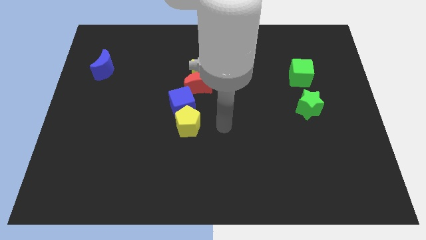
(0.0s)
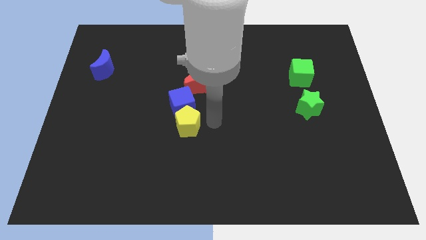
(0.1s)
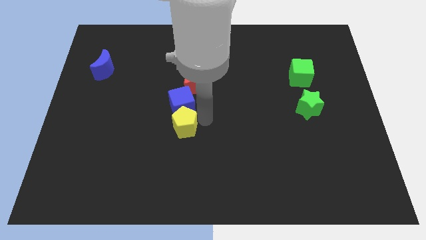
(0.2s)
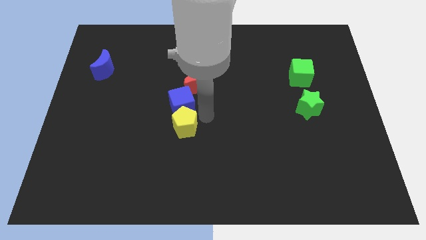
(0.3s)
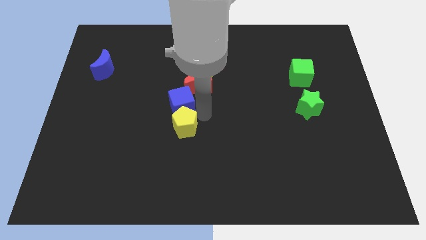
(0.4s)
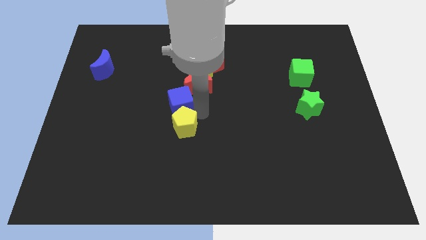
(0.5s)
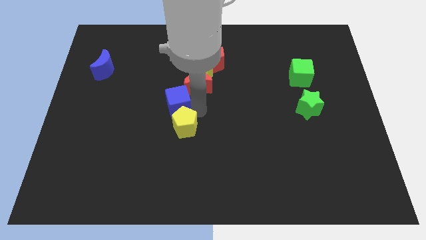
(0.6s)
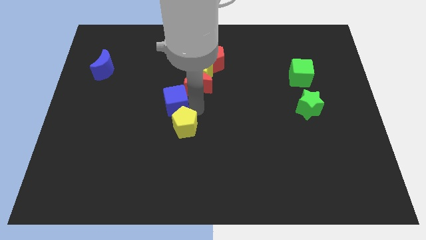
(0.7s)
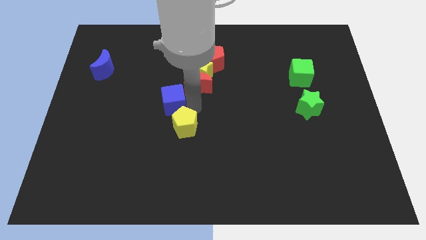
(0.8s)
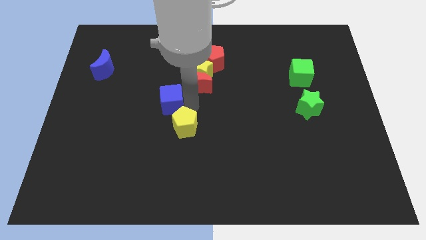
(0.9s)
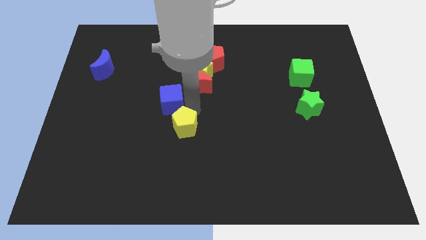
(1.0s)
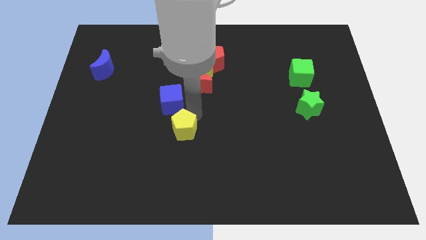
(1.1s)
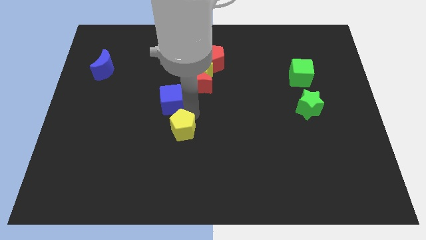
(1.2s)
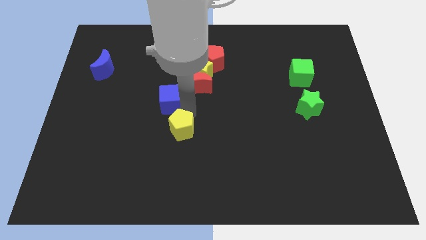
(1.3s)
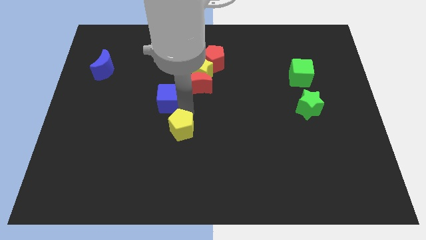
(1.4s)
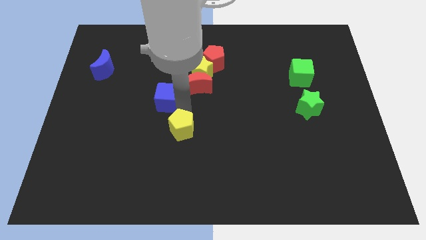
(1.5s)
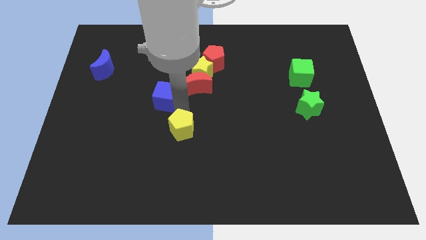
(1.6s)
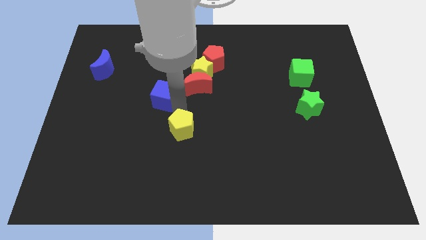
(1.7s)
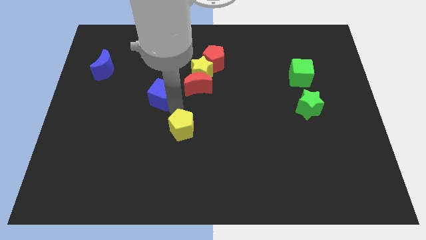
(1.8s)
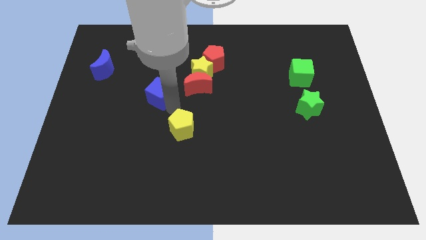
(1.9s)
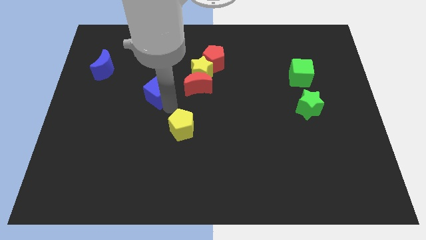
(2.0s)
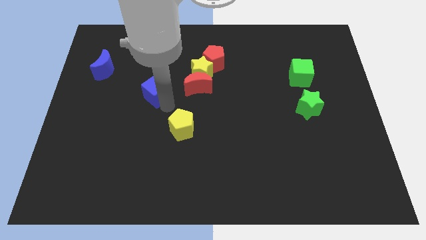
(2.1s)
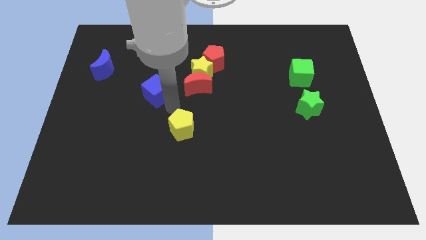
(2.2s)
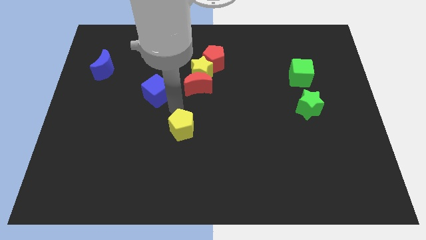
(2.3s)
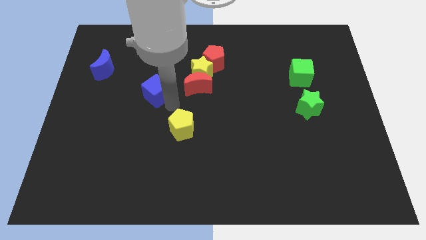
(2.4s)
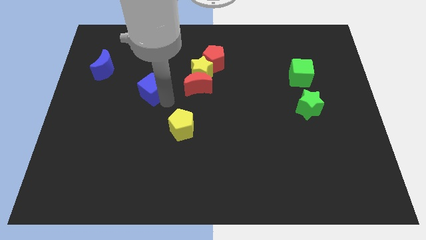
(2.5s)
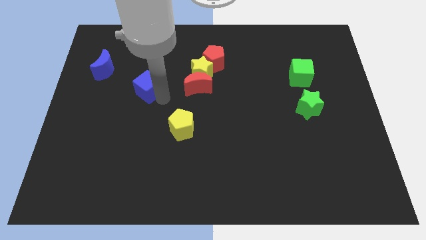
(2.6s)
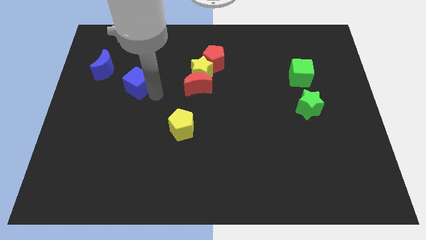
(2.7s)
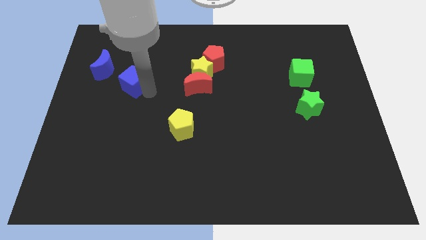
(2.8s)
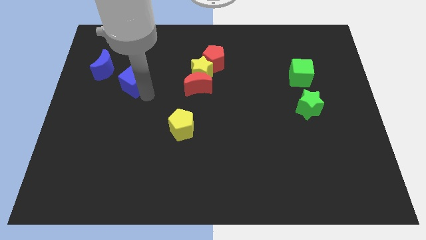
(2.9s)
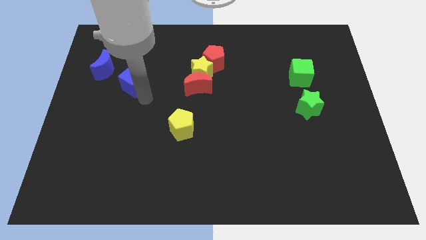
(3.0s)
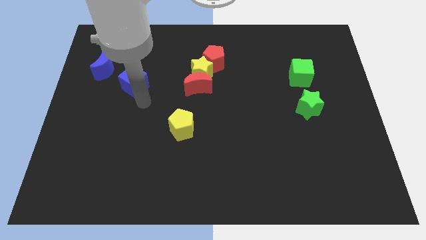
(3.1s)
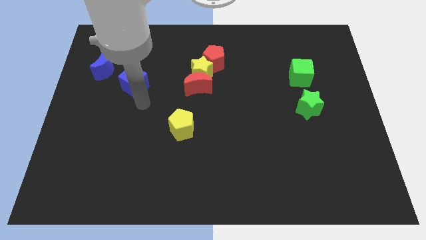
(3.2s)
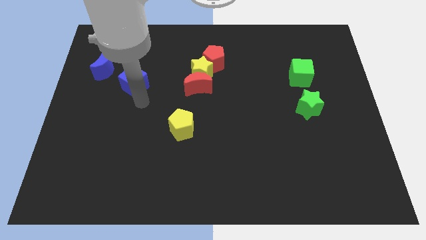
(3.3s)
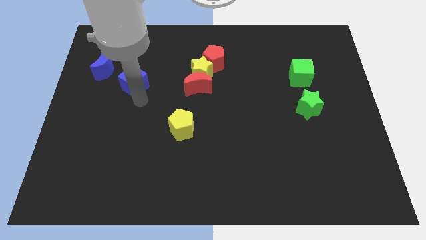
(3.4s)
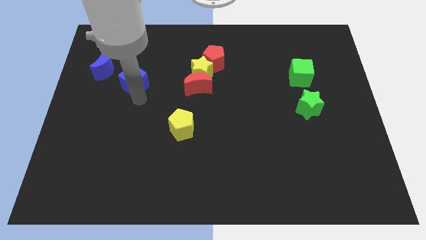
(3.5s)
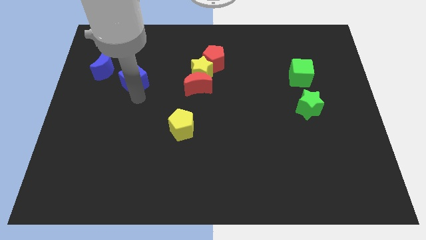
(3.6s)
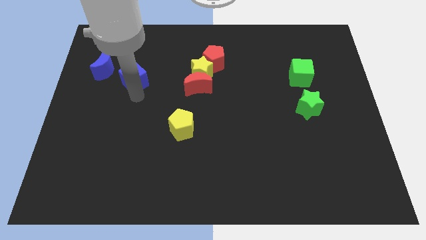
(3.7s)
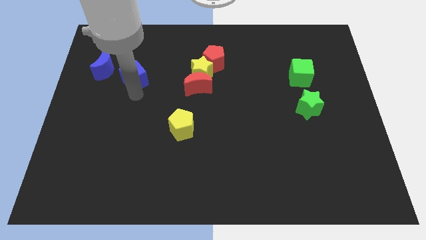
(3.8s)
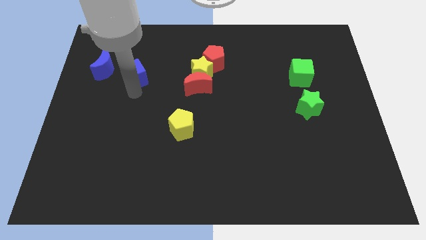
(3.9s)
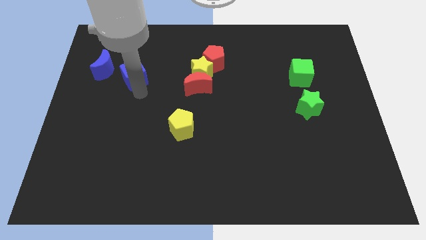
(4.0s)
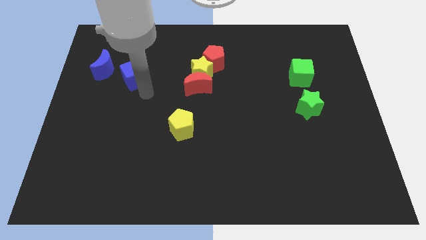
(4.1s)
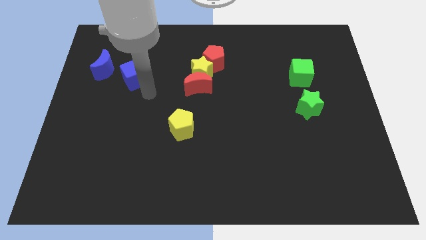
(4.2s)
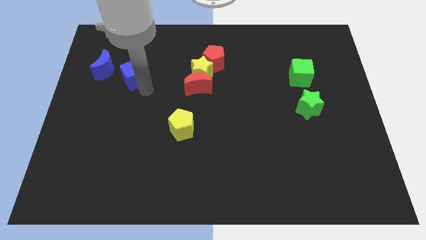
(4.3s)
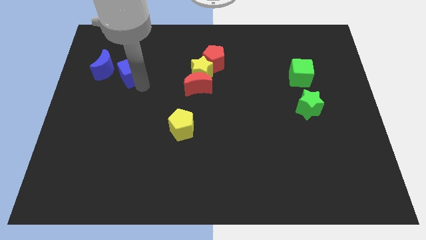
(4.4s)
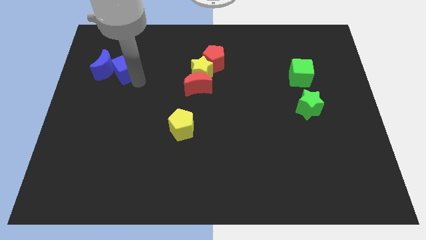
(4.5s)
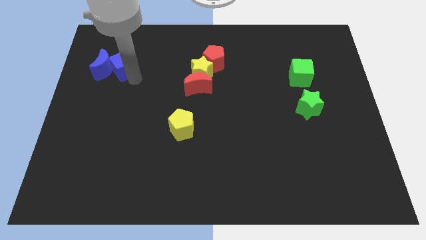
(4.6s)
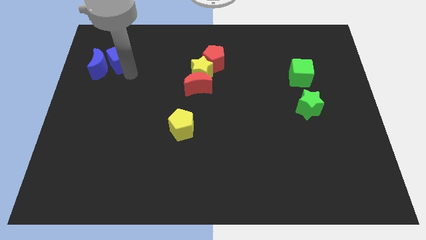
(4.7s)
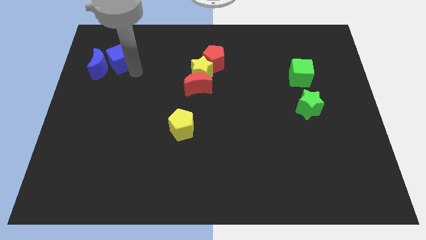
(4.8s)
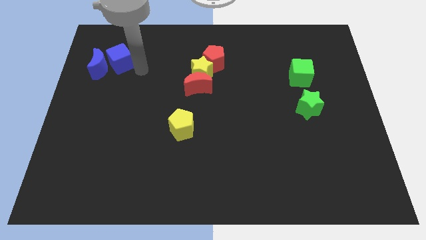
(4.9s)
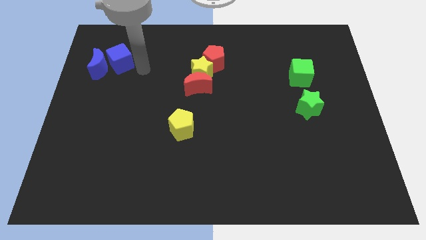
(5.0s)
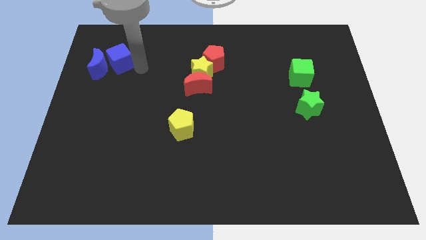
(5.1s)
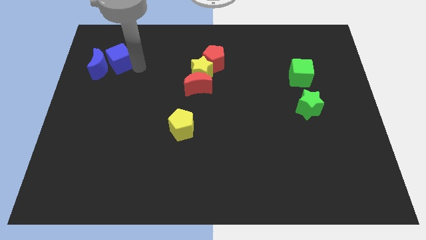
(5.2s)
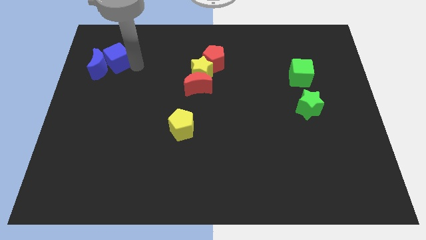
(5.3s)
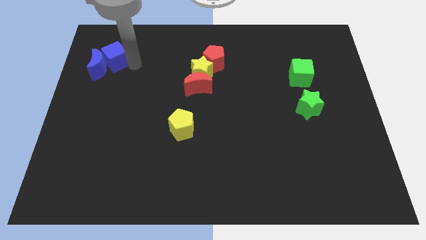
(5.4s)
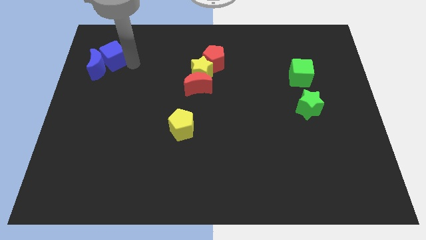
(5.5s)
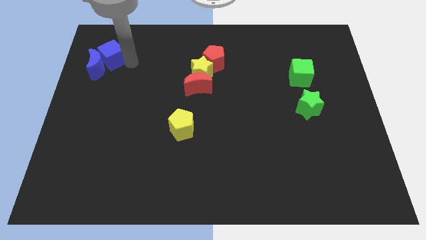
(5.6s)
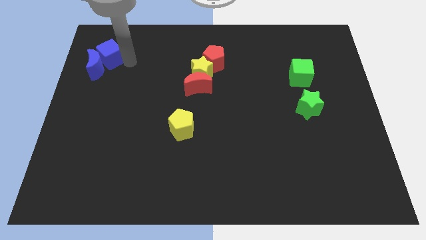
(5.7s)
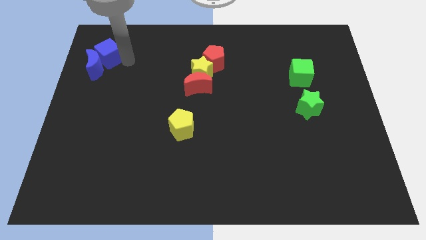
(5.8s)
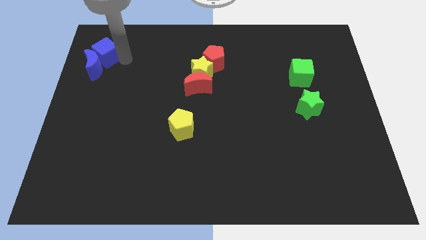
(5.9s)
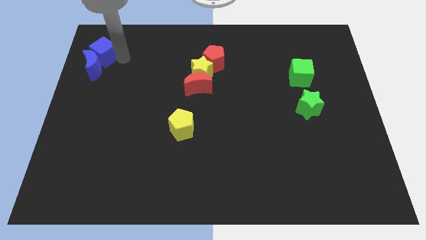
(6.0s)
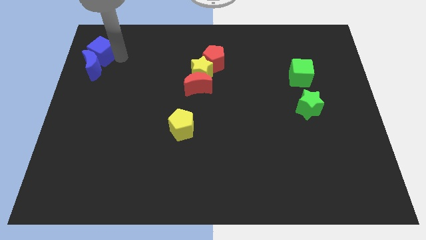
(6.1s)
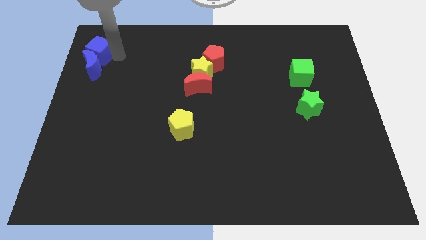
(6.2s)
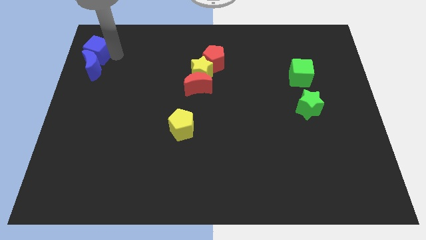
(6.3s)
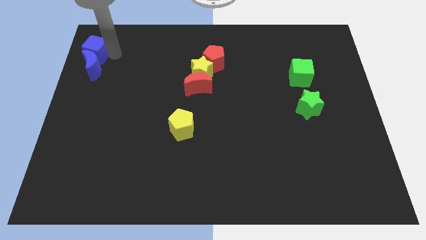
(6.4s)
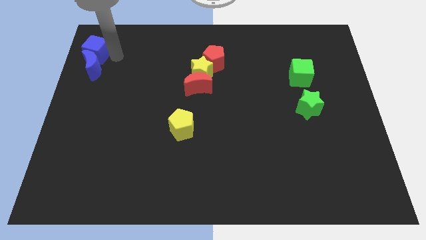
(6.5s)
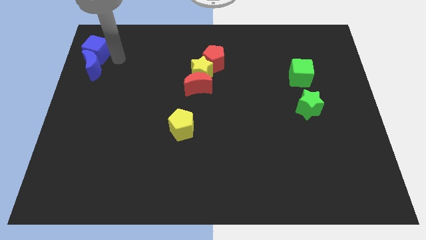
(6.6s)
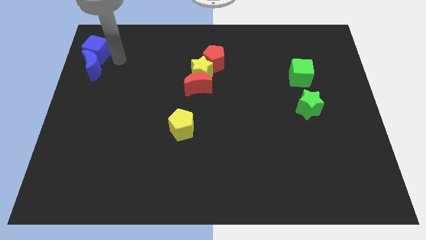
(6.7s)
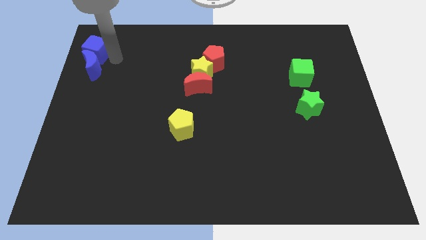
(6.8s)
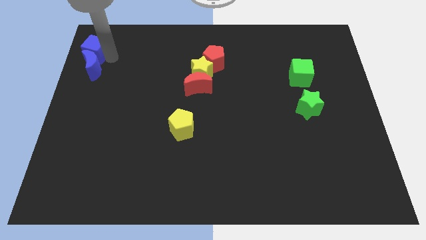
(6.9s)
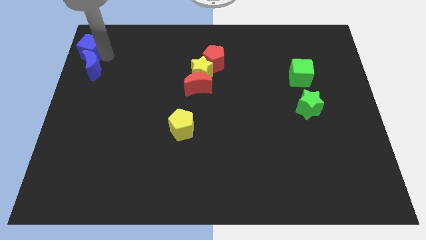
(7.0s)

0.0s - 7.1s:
push the blue cube to the top left
